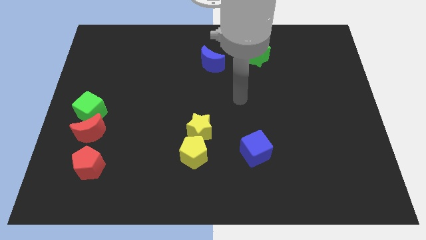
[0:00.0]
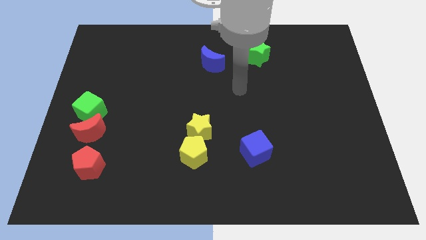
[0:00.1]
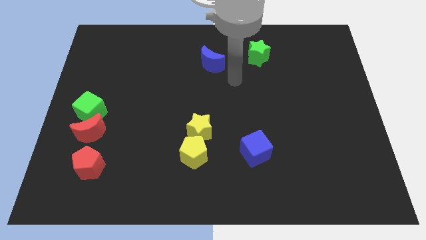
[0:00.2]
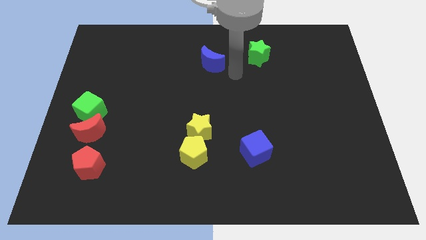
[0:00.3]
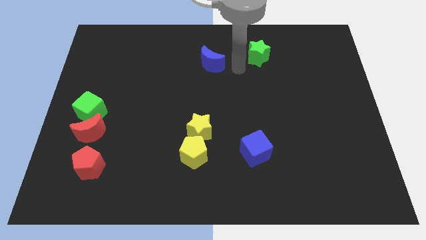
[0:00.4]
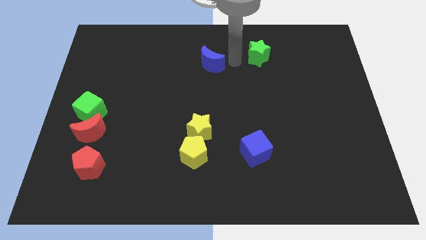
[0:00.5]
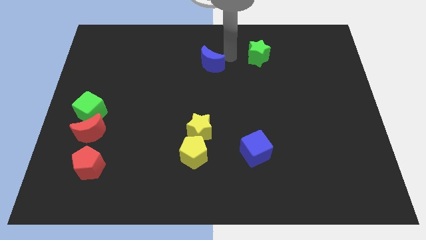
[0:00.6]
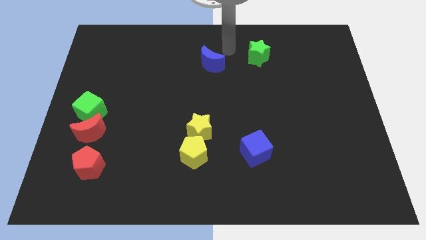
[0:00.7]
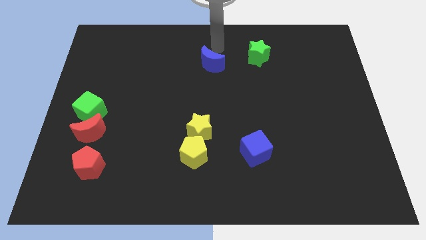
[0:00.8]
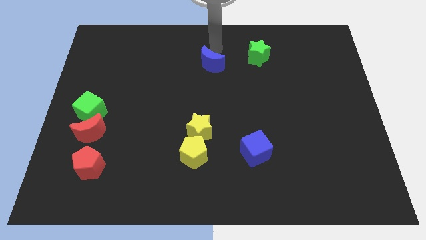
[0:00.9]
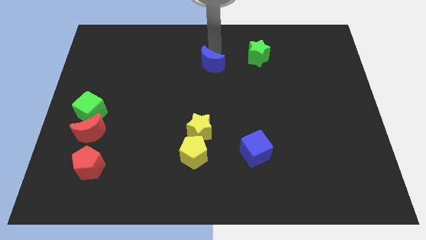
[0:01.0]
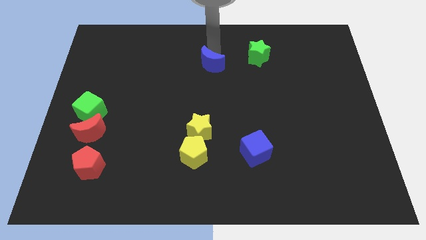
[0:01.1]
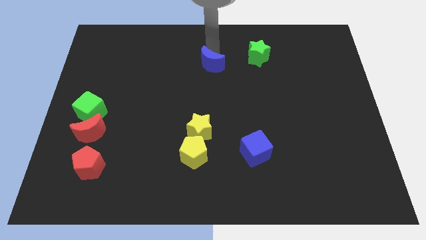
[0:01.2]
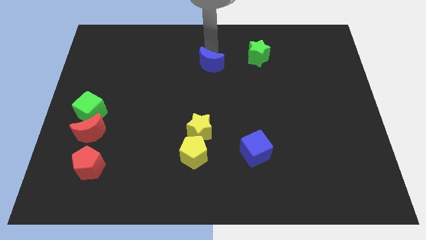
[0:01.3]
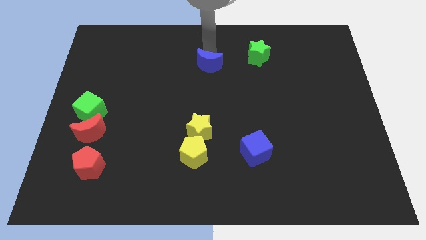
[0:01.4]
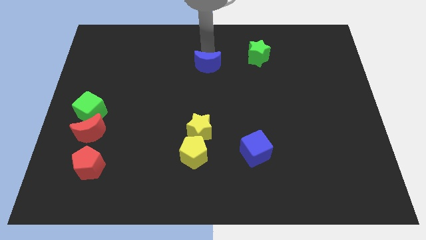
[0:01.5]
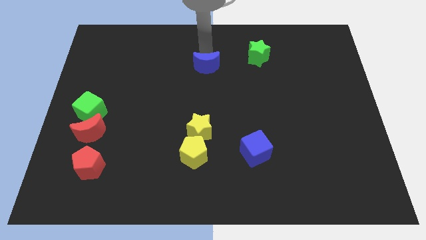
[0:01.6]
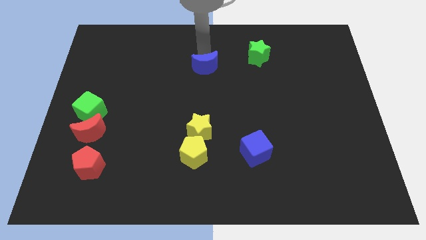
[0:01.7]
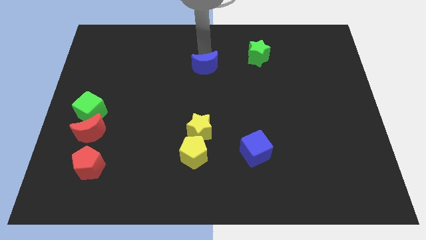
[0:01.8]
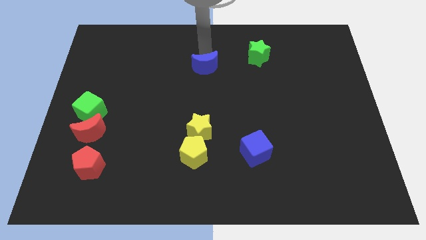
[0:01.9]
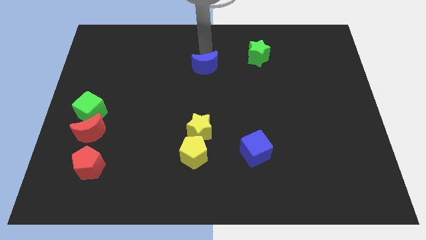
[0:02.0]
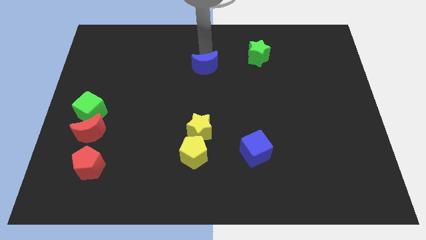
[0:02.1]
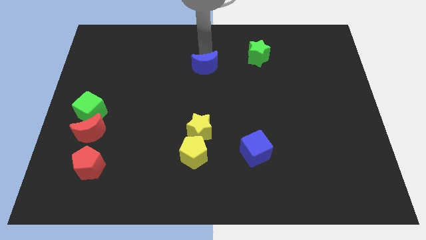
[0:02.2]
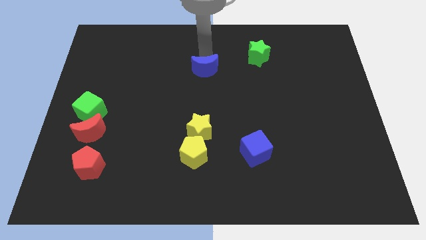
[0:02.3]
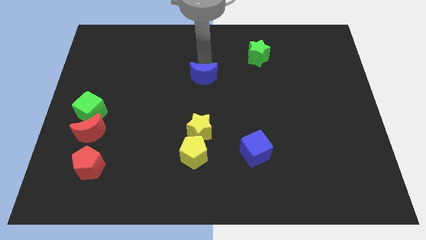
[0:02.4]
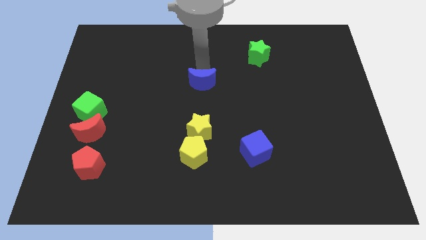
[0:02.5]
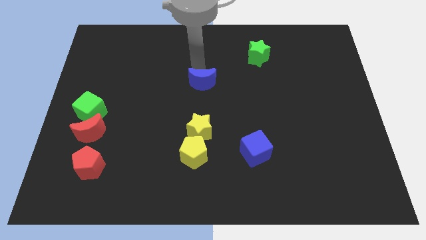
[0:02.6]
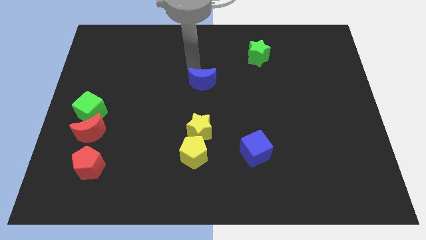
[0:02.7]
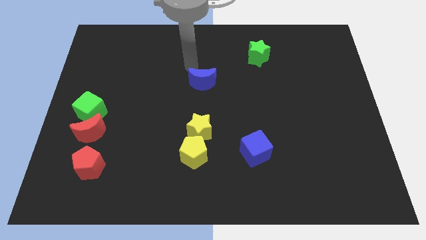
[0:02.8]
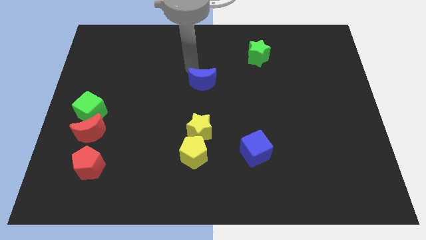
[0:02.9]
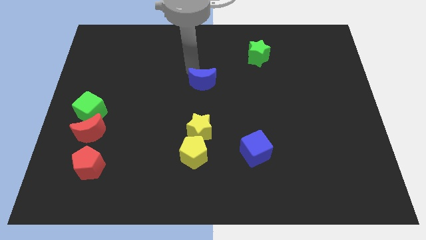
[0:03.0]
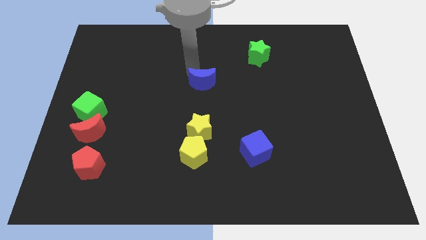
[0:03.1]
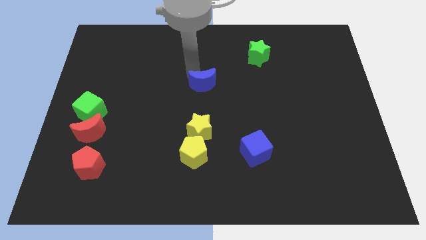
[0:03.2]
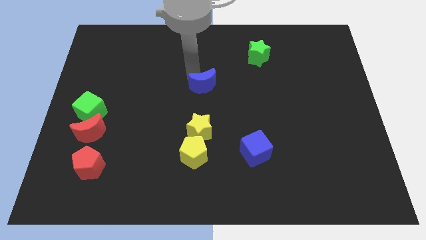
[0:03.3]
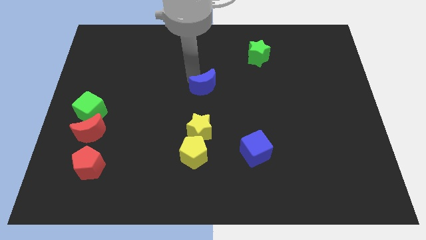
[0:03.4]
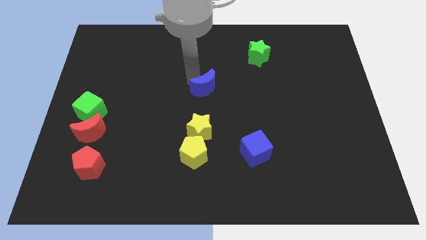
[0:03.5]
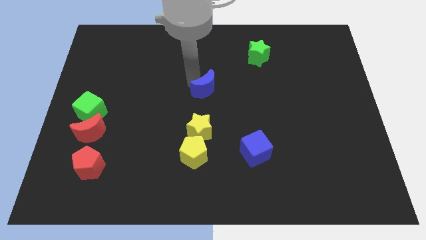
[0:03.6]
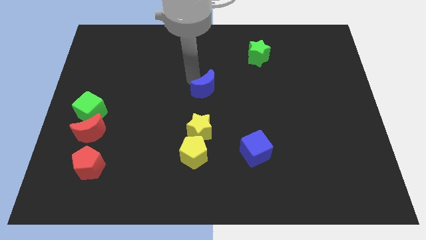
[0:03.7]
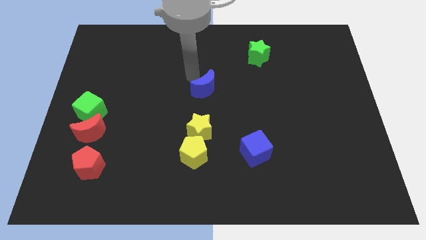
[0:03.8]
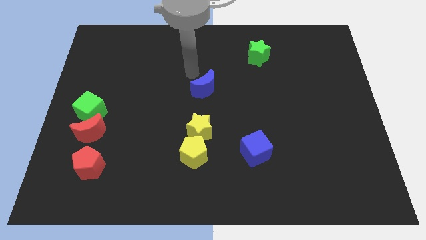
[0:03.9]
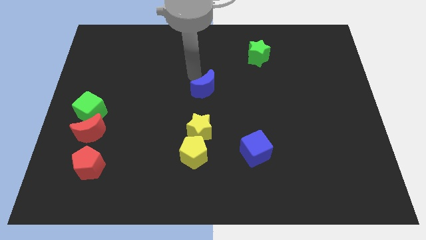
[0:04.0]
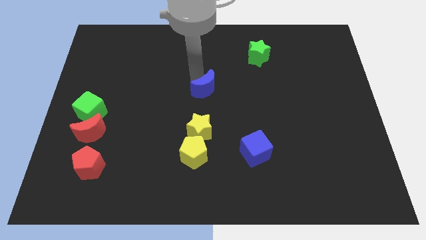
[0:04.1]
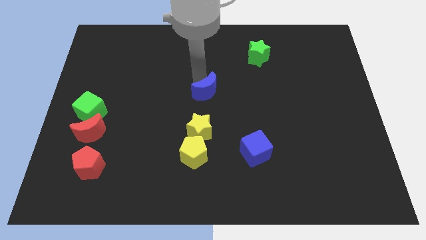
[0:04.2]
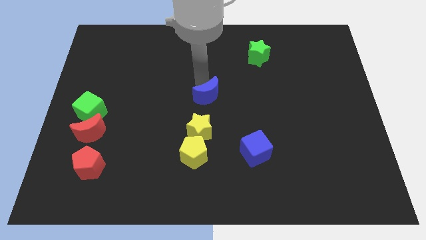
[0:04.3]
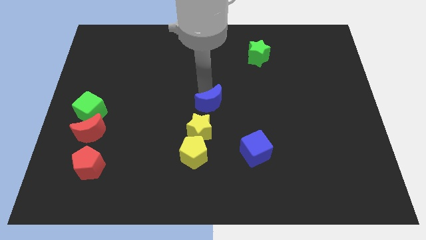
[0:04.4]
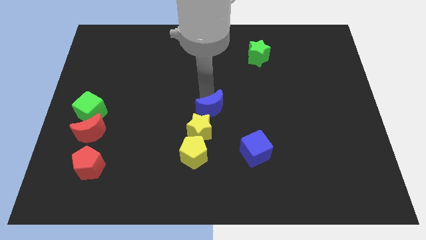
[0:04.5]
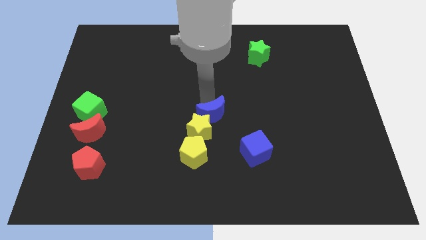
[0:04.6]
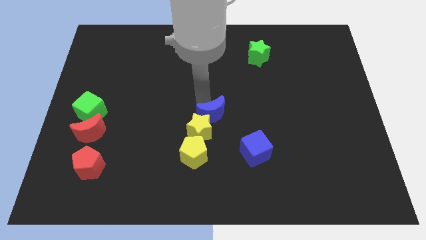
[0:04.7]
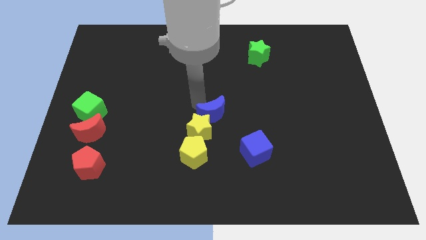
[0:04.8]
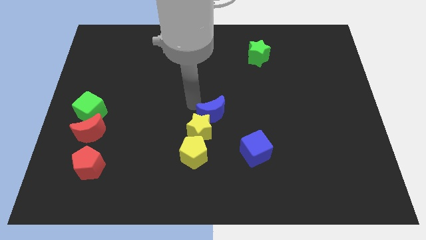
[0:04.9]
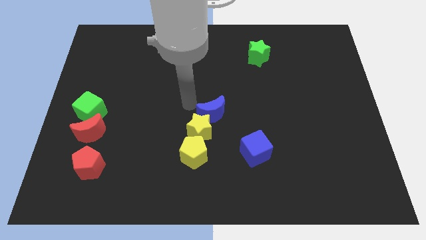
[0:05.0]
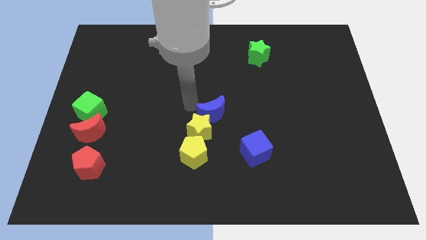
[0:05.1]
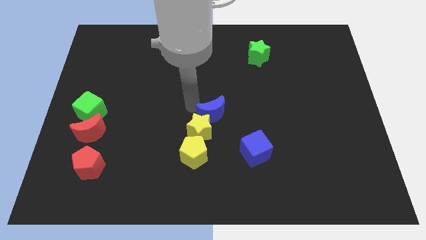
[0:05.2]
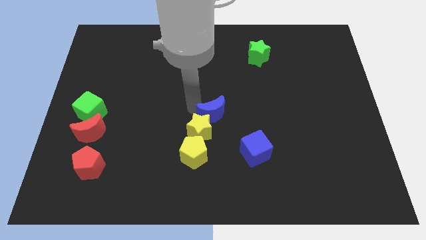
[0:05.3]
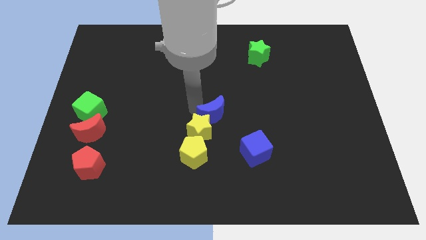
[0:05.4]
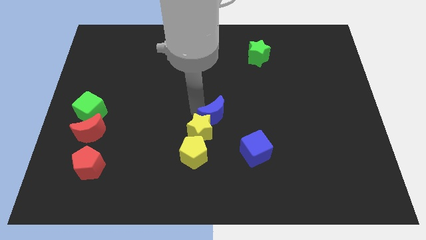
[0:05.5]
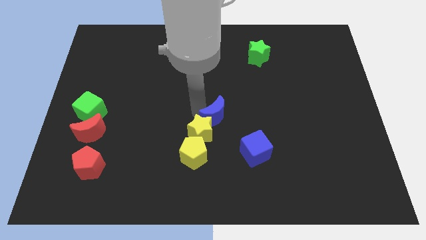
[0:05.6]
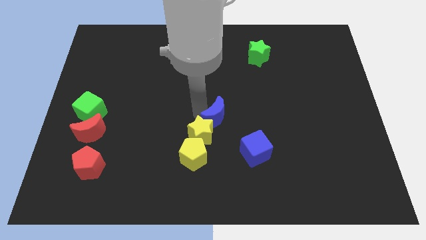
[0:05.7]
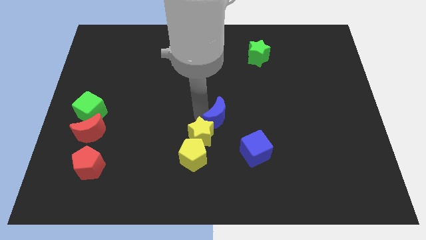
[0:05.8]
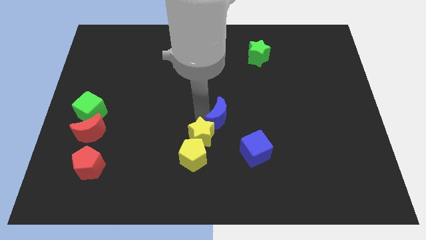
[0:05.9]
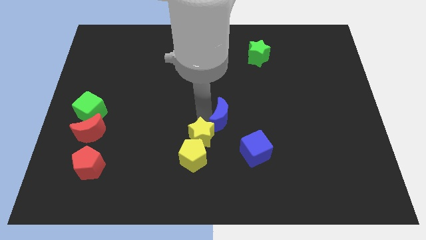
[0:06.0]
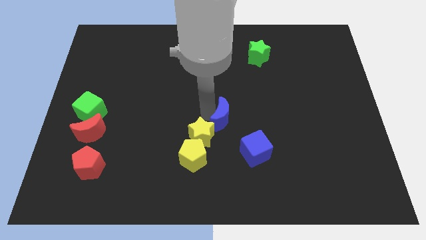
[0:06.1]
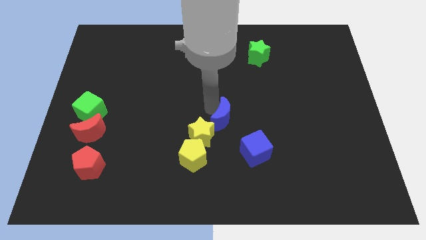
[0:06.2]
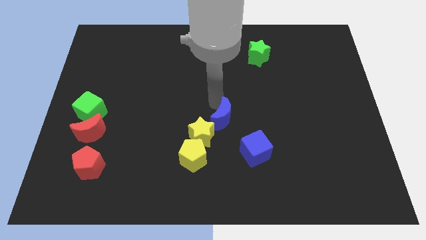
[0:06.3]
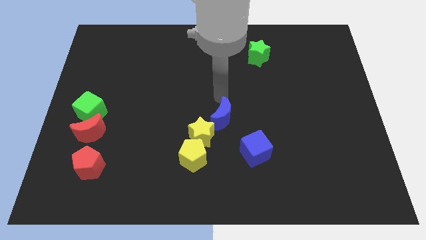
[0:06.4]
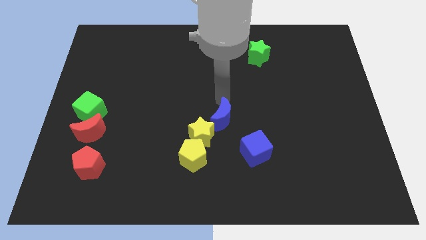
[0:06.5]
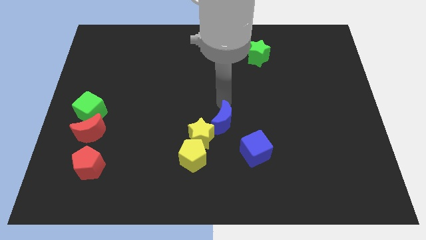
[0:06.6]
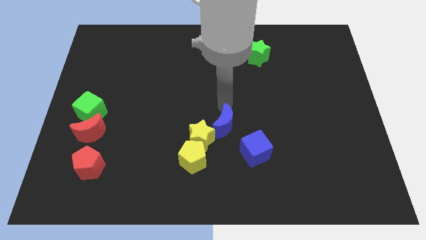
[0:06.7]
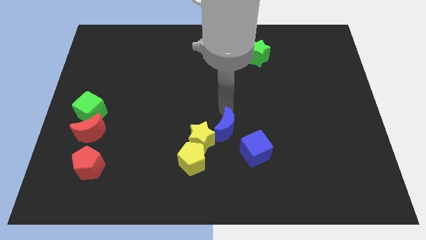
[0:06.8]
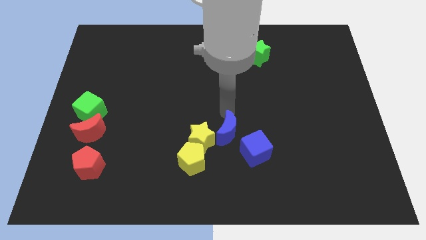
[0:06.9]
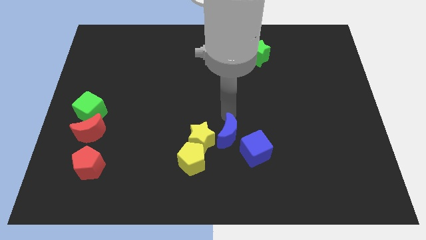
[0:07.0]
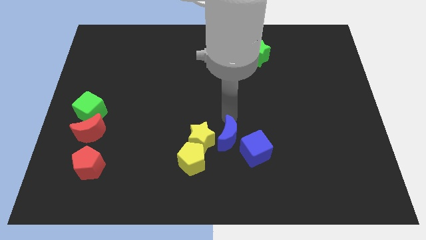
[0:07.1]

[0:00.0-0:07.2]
put the blue moon to the bottom right of the yellow star
